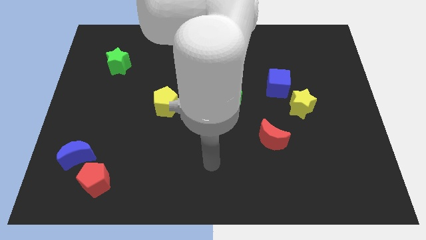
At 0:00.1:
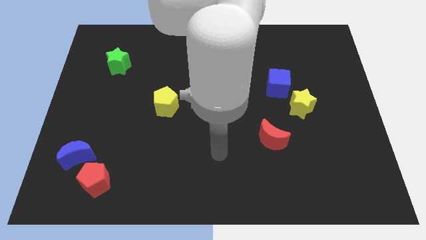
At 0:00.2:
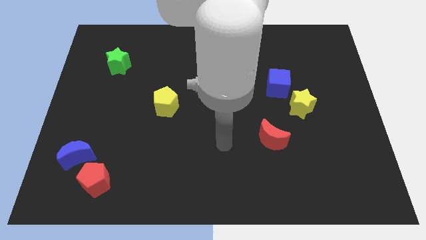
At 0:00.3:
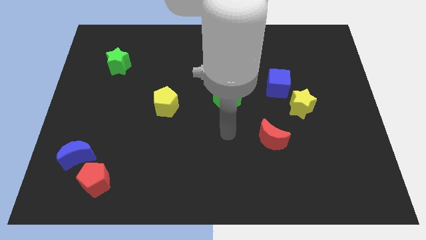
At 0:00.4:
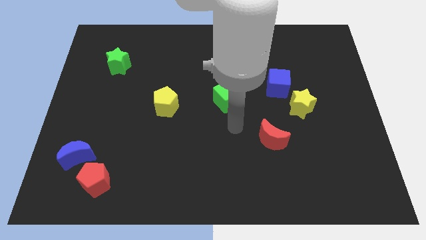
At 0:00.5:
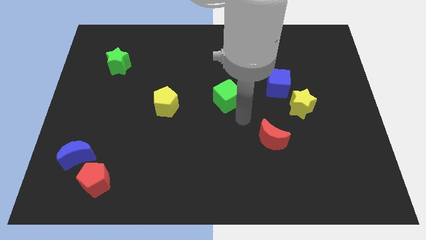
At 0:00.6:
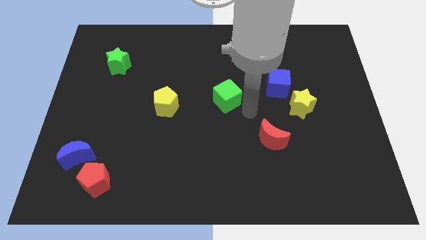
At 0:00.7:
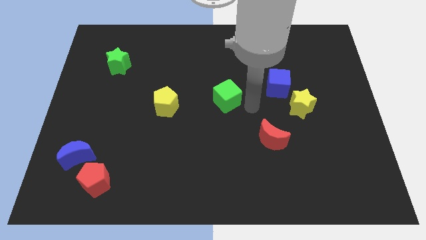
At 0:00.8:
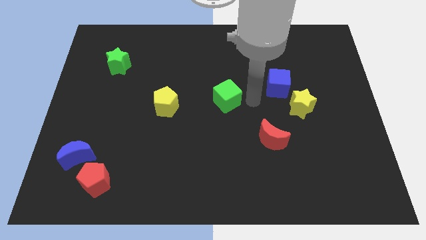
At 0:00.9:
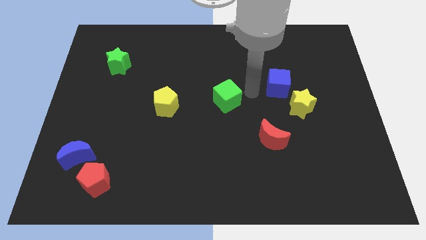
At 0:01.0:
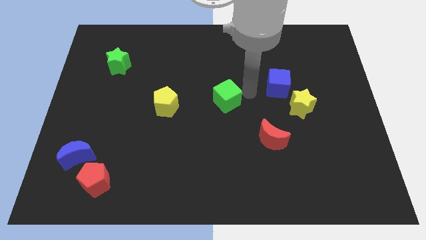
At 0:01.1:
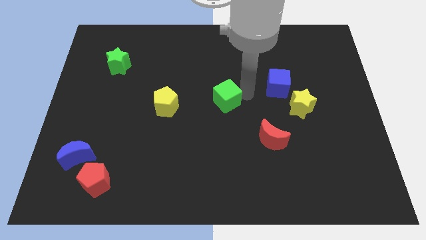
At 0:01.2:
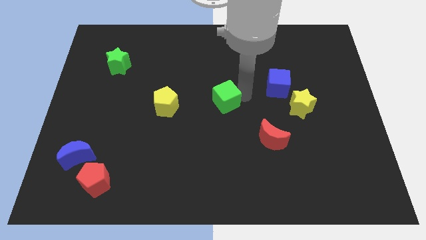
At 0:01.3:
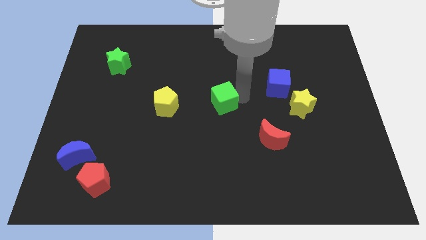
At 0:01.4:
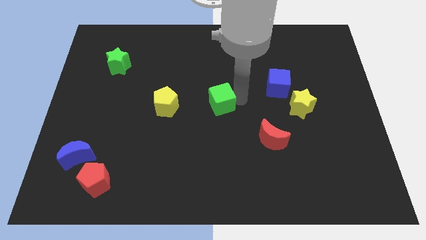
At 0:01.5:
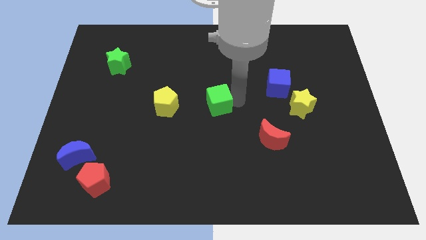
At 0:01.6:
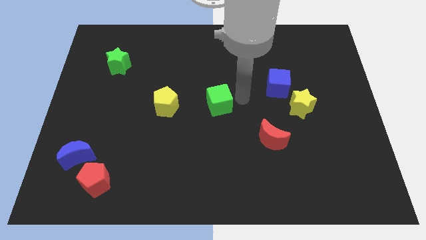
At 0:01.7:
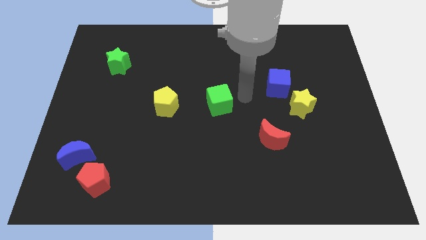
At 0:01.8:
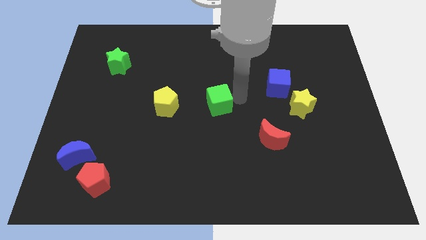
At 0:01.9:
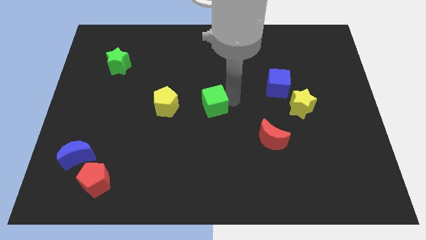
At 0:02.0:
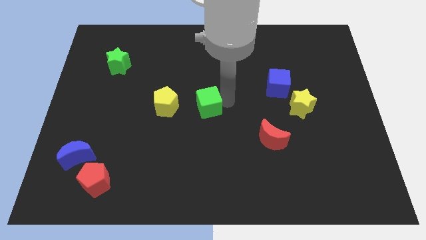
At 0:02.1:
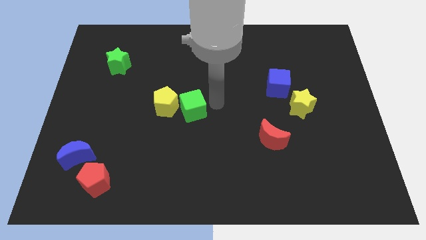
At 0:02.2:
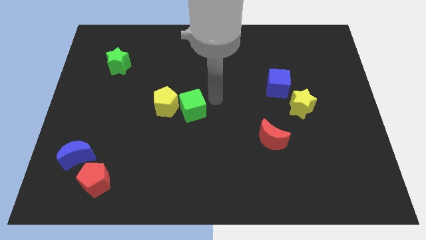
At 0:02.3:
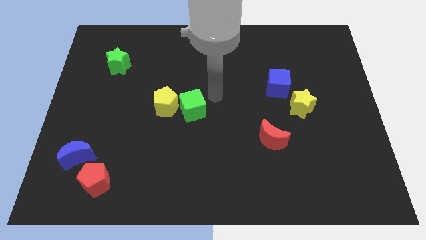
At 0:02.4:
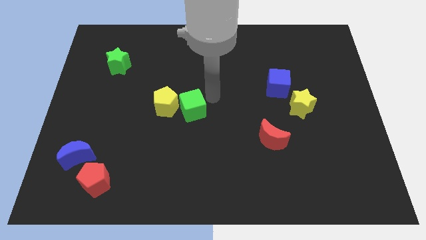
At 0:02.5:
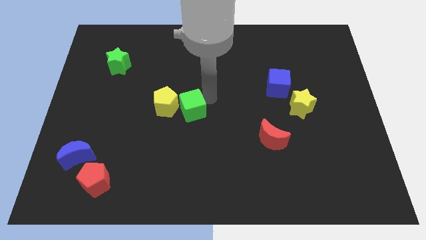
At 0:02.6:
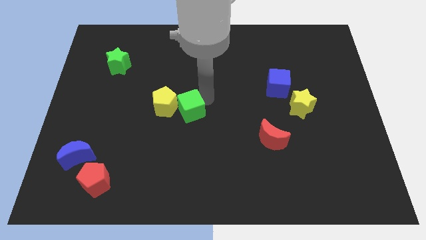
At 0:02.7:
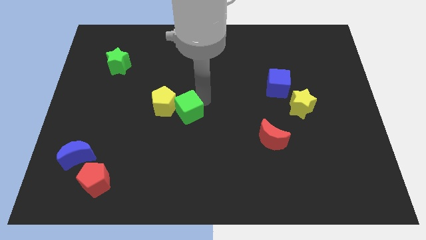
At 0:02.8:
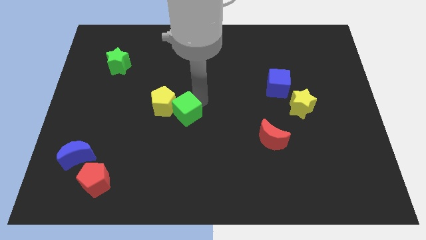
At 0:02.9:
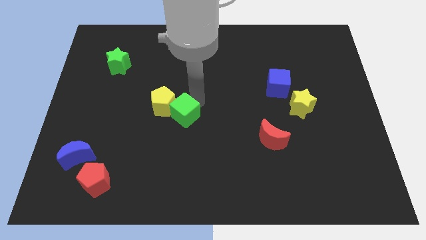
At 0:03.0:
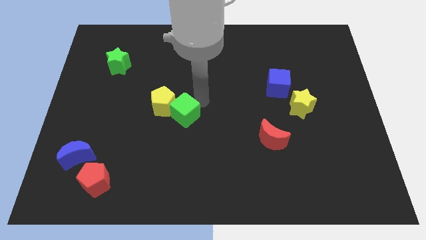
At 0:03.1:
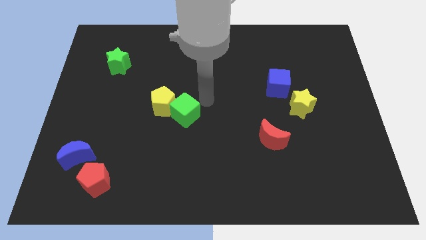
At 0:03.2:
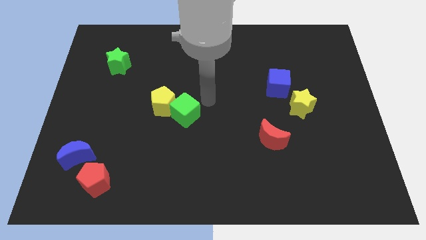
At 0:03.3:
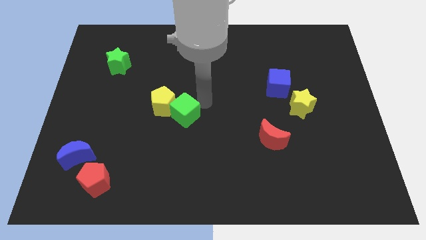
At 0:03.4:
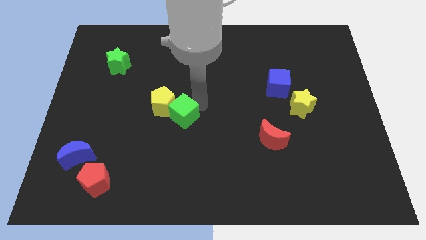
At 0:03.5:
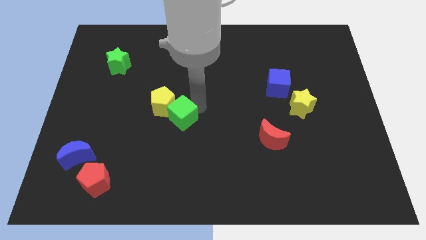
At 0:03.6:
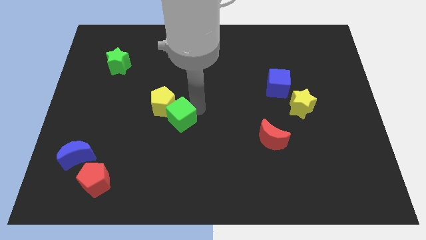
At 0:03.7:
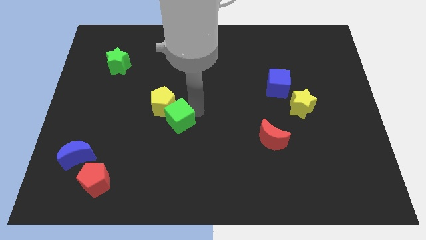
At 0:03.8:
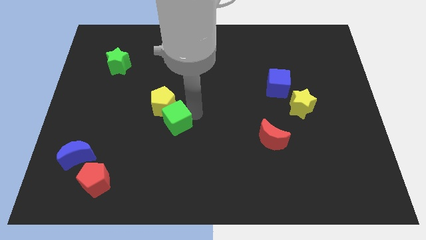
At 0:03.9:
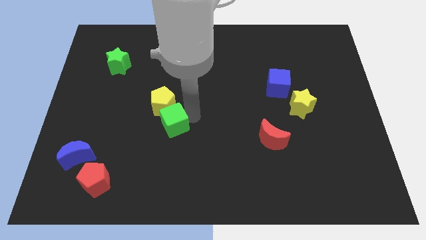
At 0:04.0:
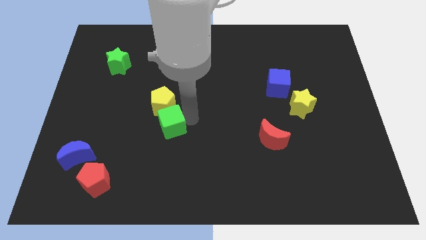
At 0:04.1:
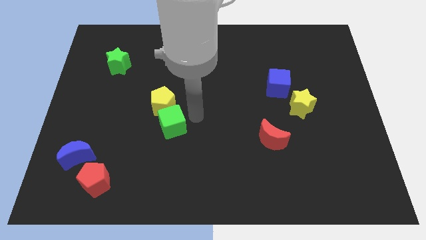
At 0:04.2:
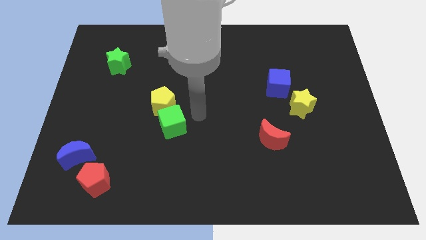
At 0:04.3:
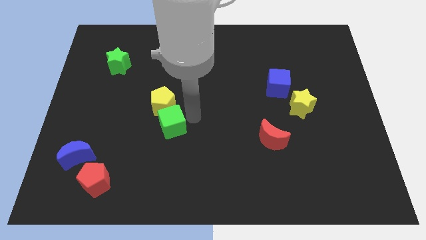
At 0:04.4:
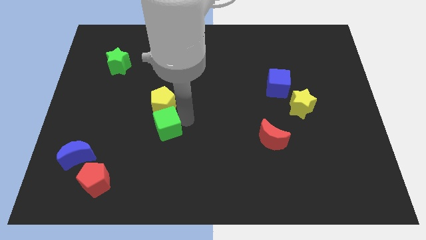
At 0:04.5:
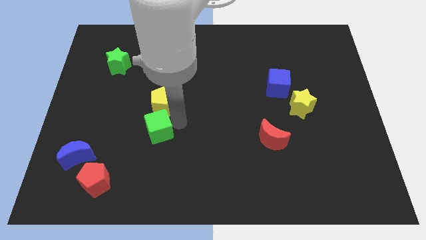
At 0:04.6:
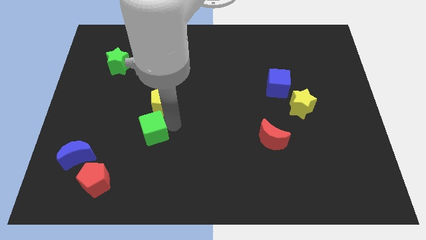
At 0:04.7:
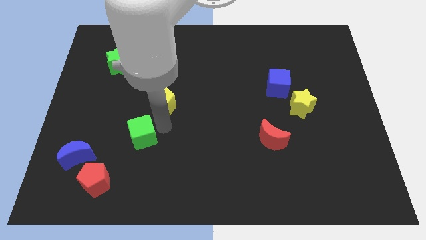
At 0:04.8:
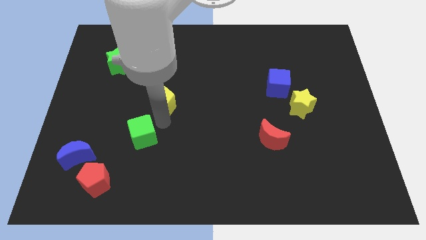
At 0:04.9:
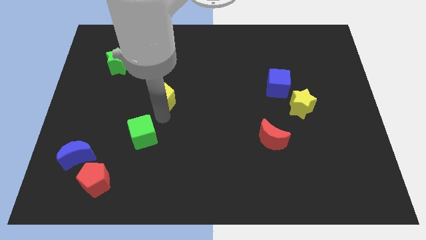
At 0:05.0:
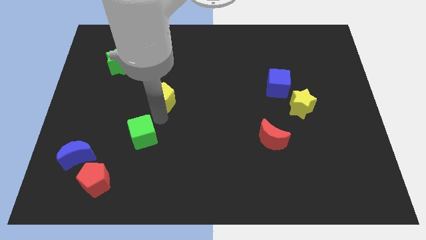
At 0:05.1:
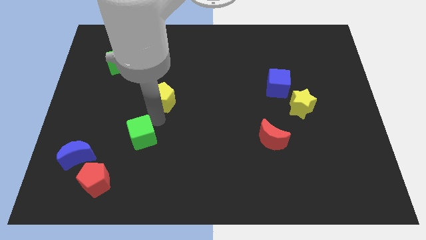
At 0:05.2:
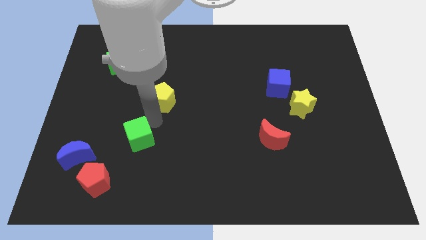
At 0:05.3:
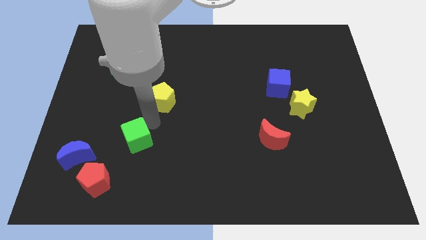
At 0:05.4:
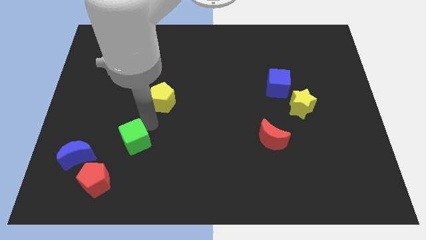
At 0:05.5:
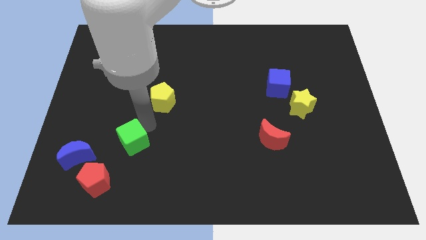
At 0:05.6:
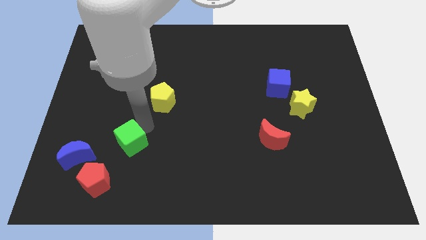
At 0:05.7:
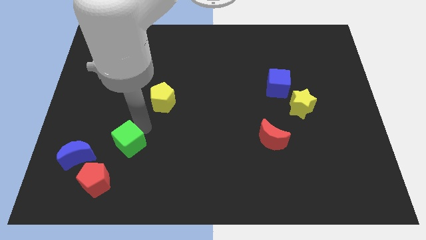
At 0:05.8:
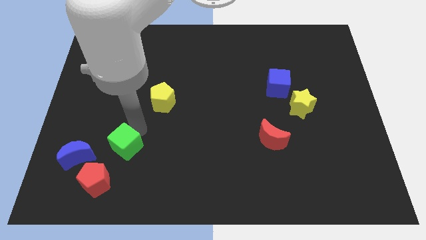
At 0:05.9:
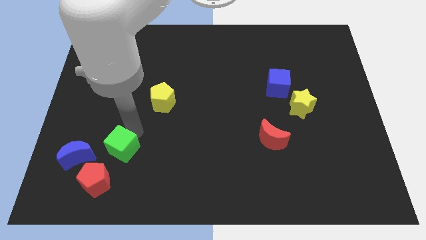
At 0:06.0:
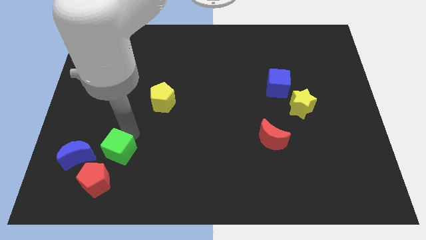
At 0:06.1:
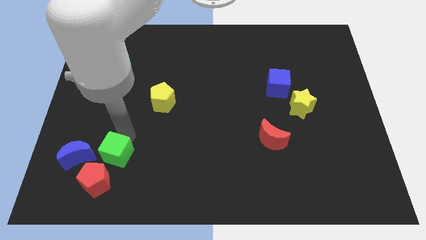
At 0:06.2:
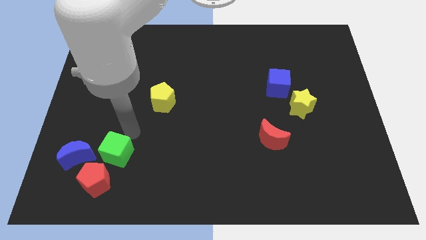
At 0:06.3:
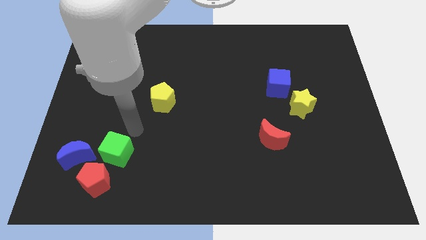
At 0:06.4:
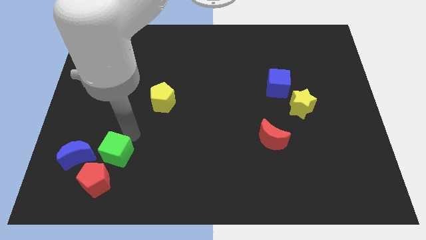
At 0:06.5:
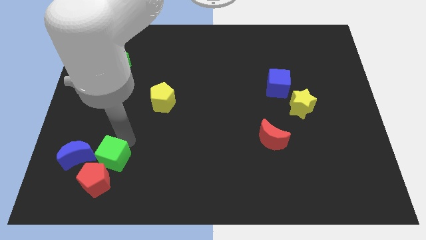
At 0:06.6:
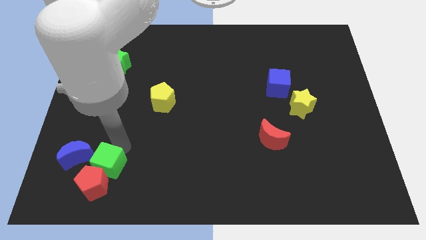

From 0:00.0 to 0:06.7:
slide the green cube close to the red pentagon
